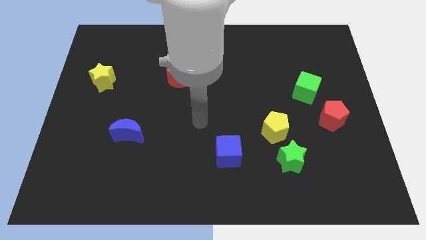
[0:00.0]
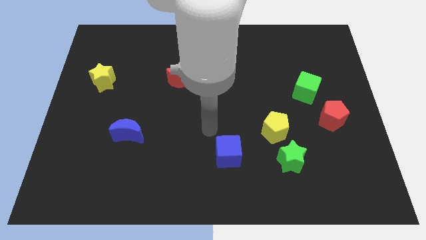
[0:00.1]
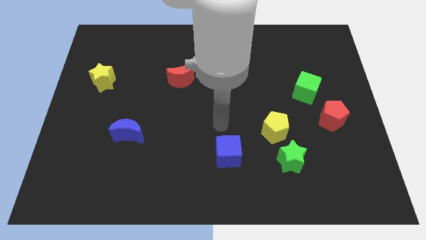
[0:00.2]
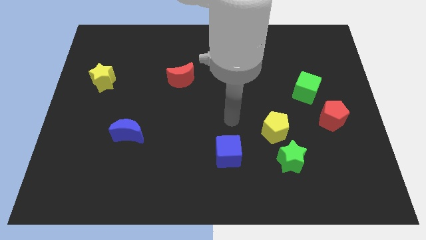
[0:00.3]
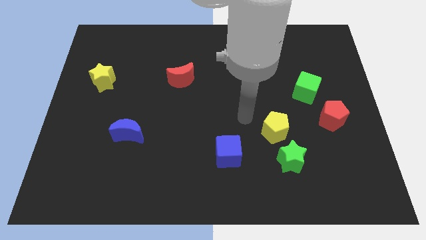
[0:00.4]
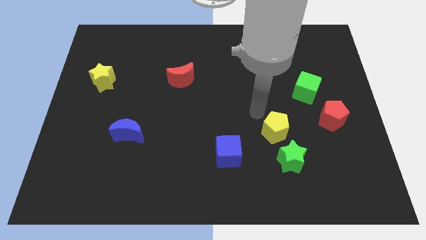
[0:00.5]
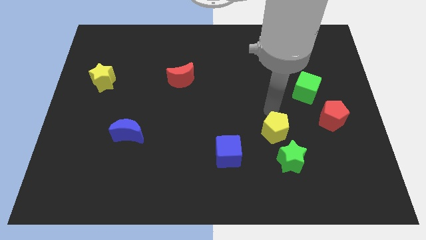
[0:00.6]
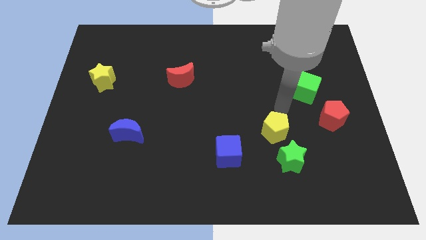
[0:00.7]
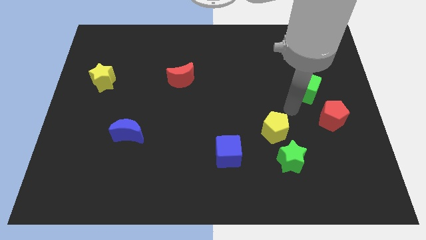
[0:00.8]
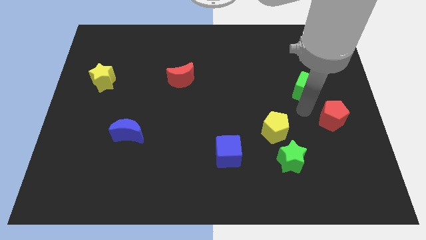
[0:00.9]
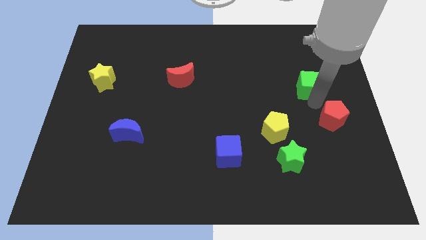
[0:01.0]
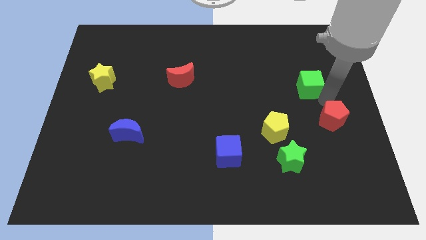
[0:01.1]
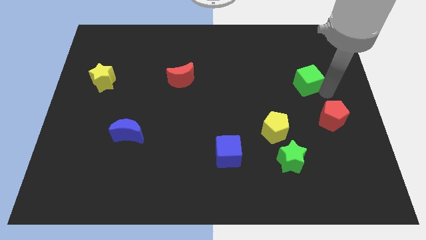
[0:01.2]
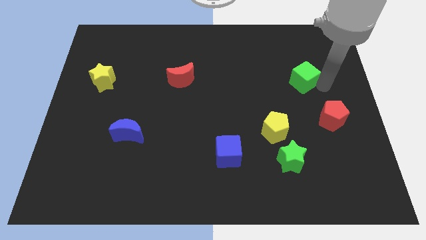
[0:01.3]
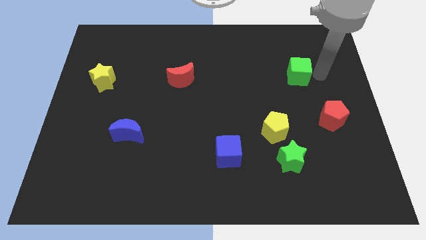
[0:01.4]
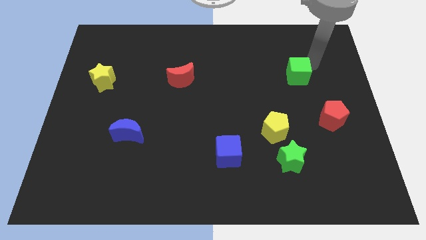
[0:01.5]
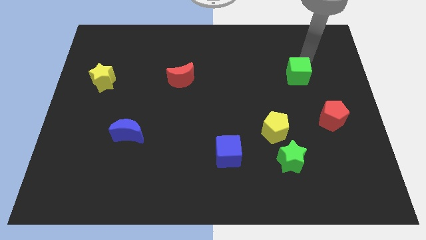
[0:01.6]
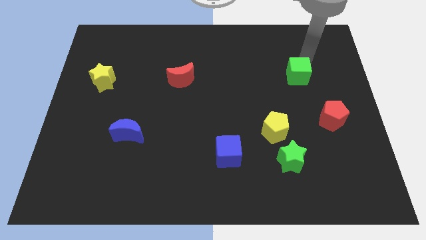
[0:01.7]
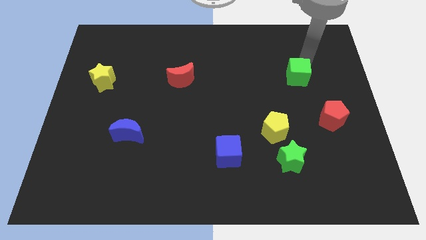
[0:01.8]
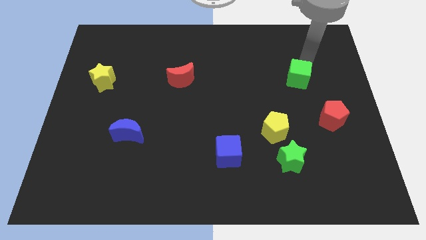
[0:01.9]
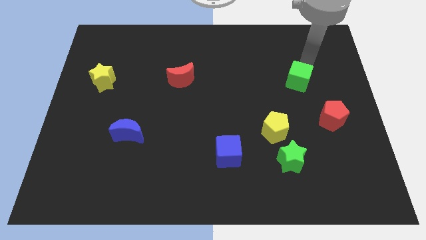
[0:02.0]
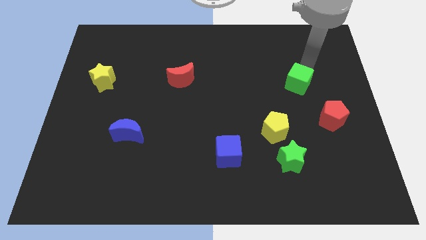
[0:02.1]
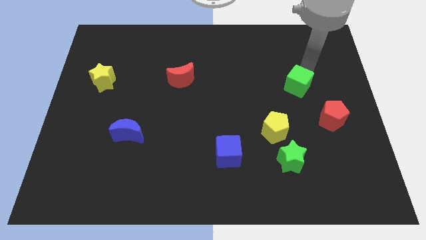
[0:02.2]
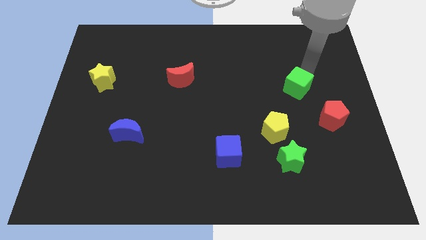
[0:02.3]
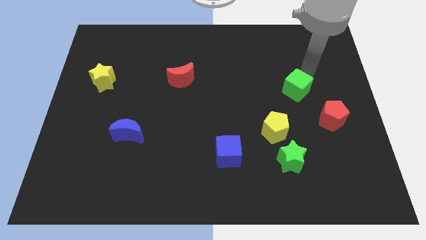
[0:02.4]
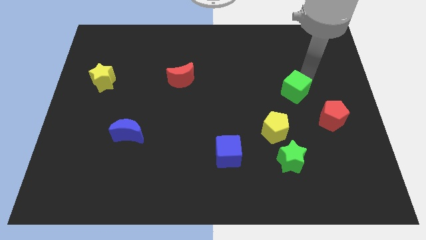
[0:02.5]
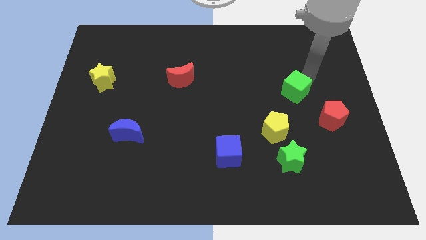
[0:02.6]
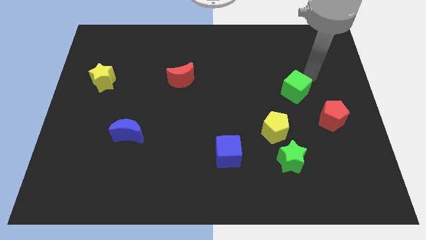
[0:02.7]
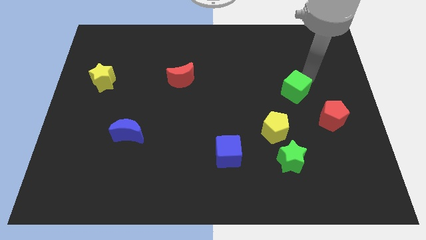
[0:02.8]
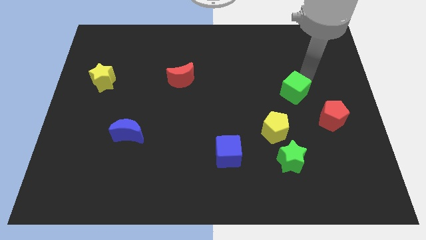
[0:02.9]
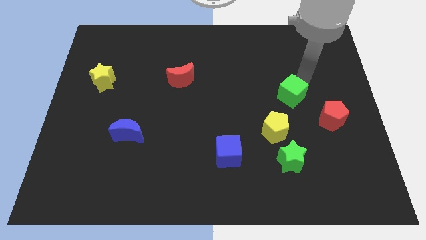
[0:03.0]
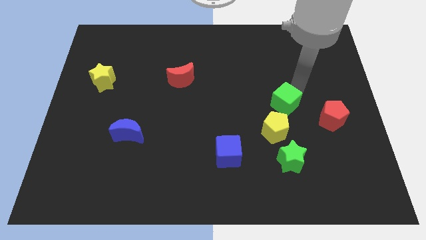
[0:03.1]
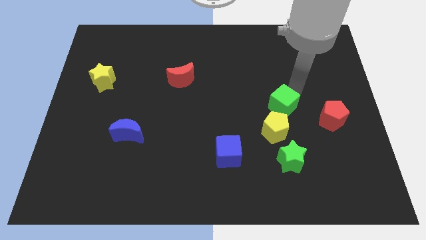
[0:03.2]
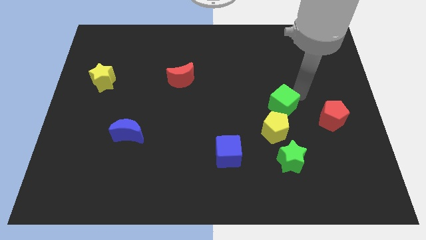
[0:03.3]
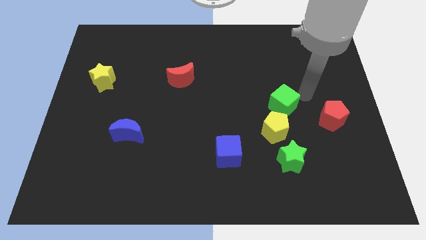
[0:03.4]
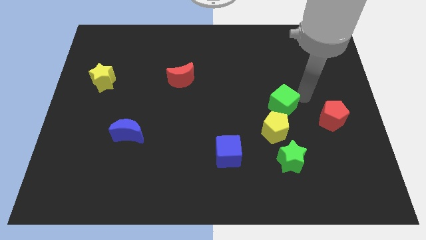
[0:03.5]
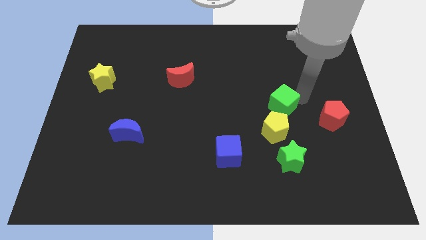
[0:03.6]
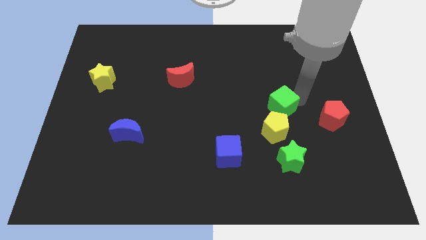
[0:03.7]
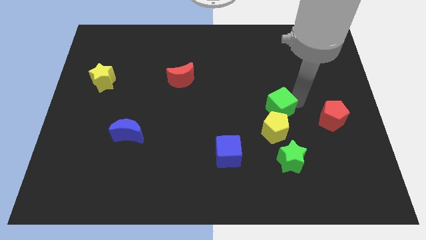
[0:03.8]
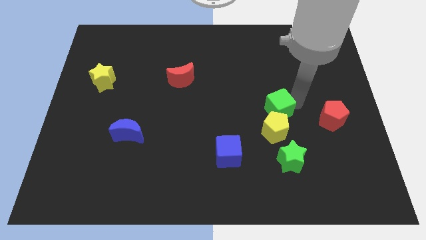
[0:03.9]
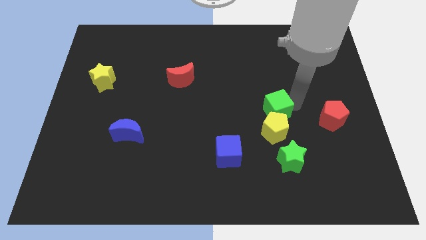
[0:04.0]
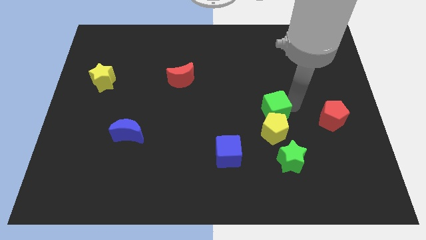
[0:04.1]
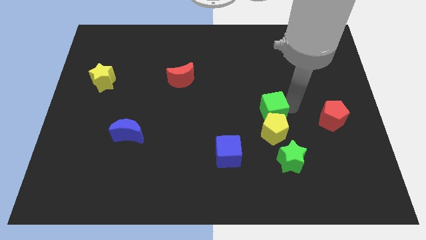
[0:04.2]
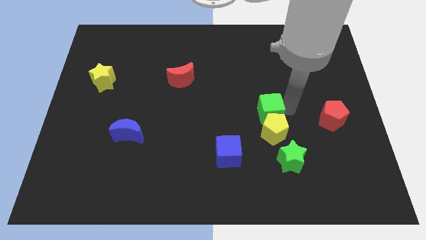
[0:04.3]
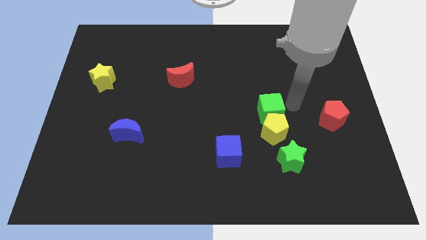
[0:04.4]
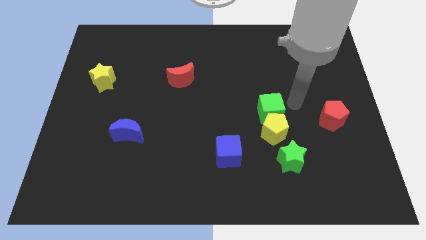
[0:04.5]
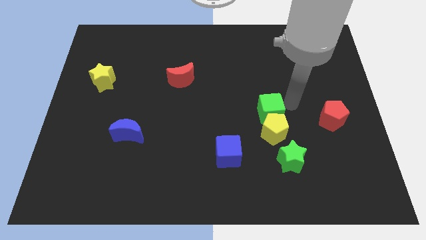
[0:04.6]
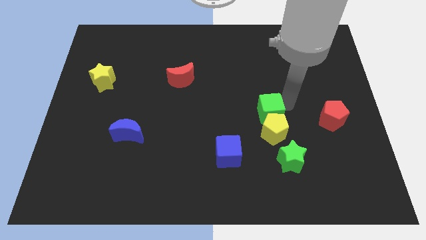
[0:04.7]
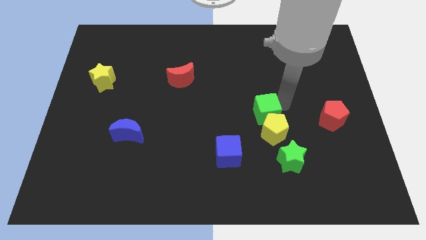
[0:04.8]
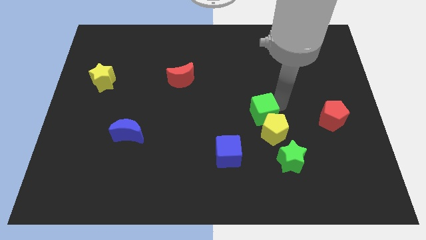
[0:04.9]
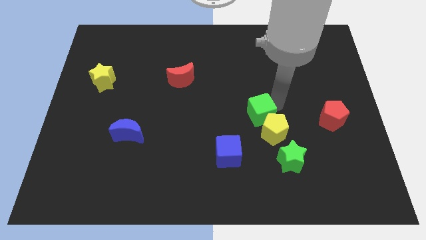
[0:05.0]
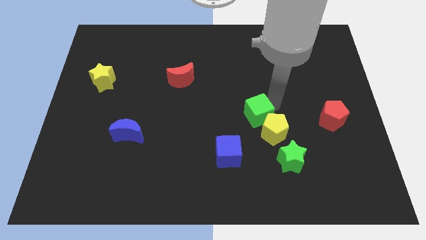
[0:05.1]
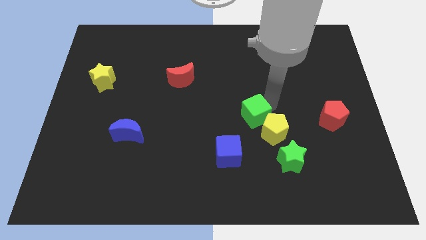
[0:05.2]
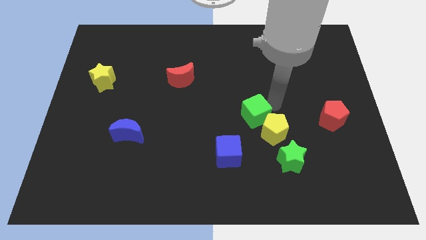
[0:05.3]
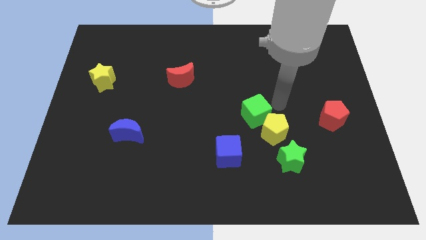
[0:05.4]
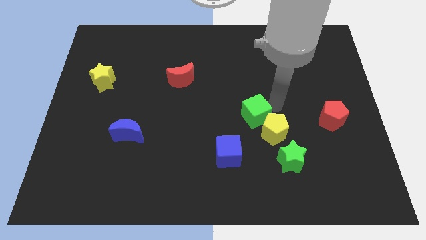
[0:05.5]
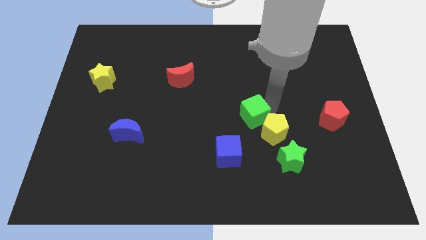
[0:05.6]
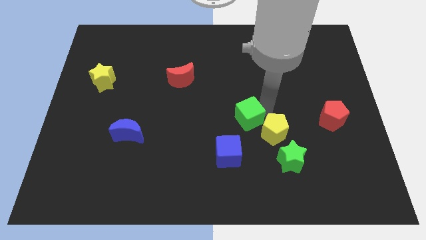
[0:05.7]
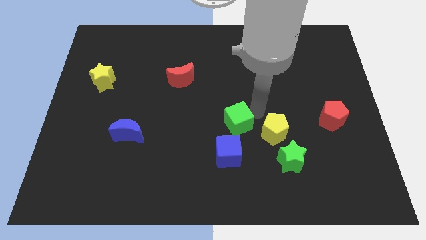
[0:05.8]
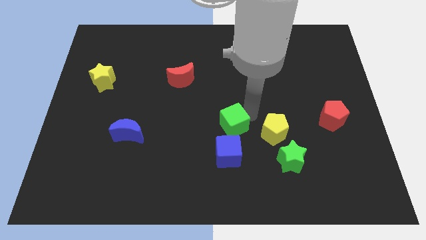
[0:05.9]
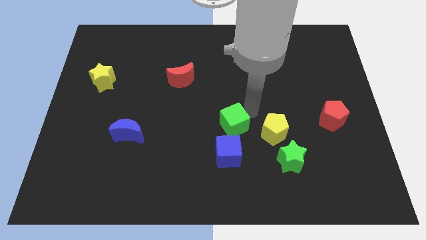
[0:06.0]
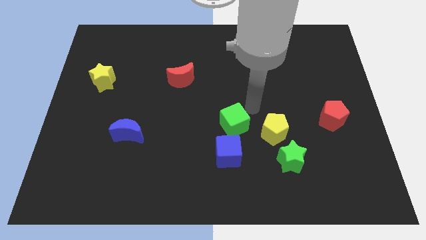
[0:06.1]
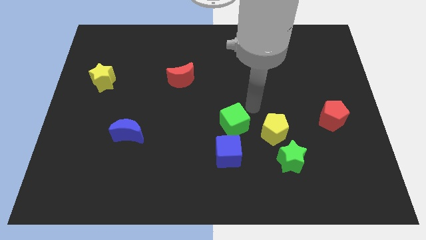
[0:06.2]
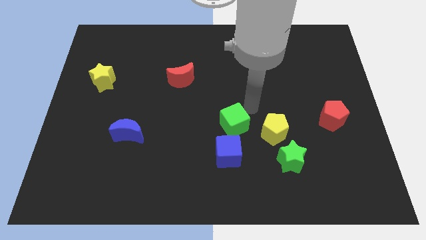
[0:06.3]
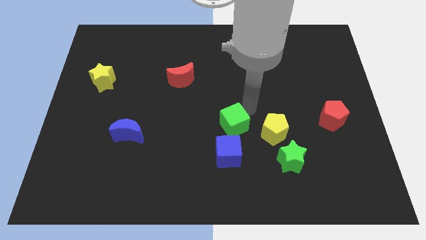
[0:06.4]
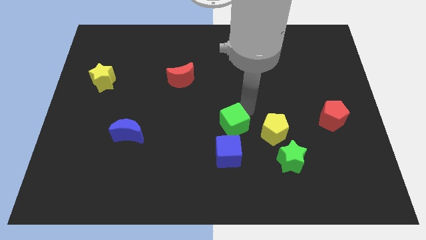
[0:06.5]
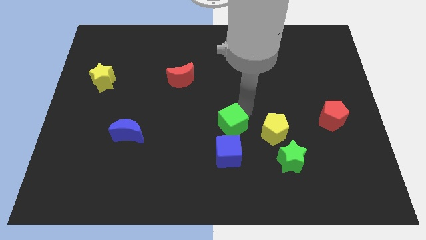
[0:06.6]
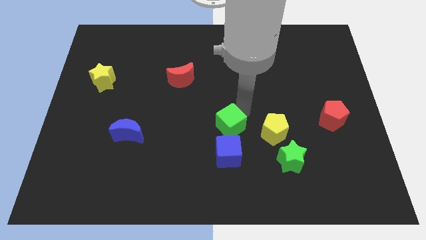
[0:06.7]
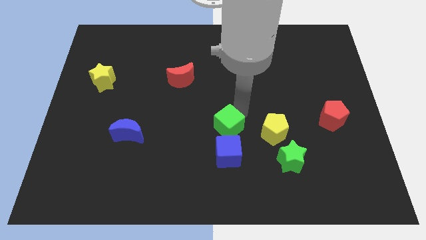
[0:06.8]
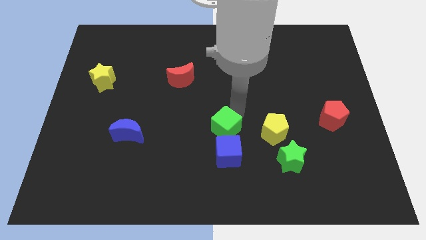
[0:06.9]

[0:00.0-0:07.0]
push the green cube downwards and then left

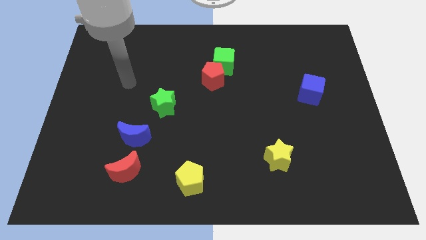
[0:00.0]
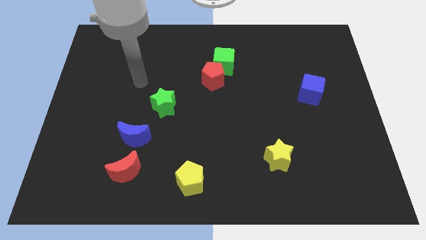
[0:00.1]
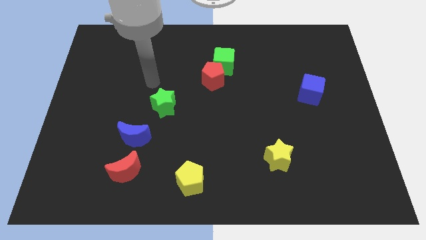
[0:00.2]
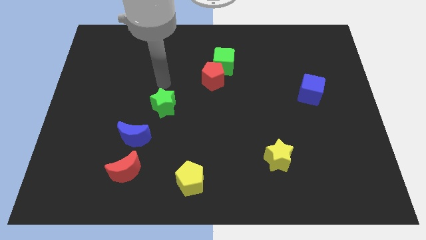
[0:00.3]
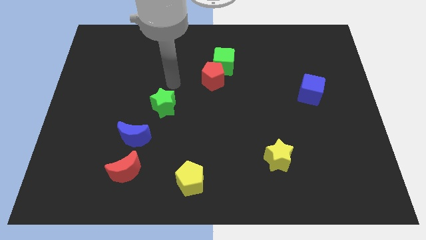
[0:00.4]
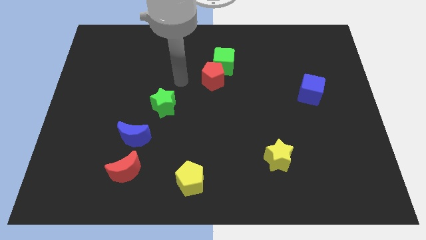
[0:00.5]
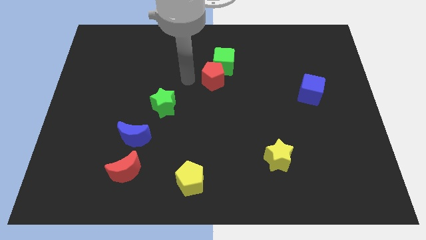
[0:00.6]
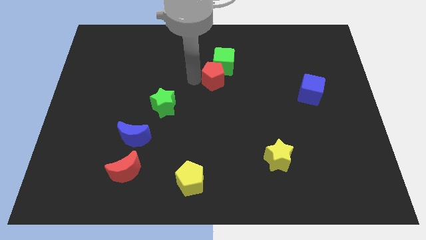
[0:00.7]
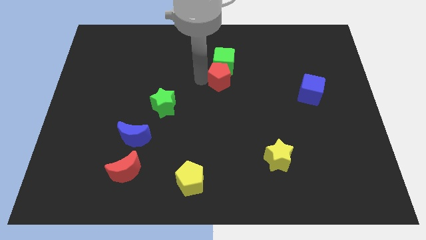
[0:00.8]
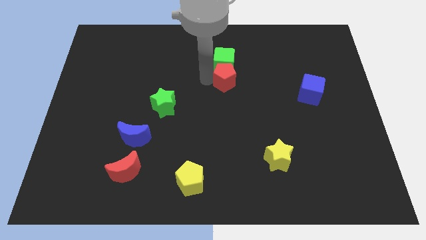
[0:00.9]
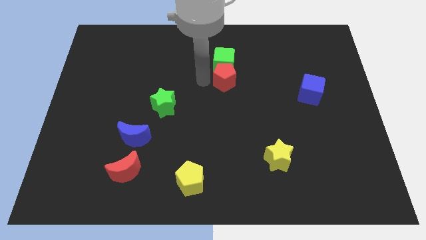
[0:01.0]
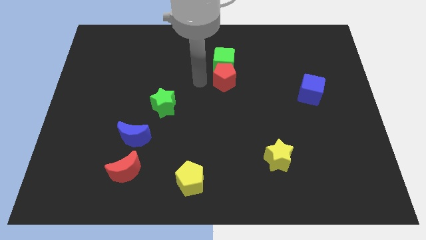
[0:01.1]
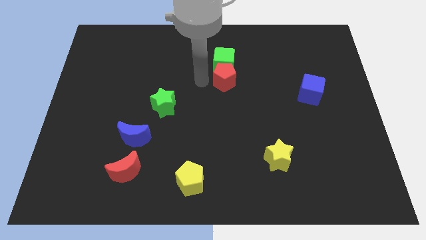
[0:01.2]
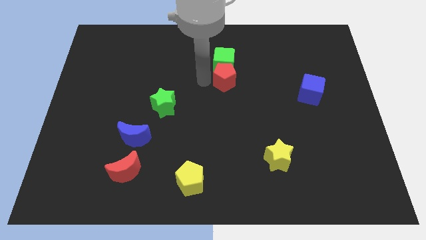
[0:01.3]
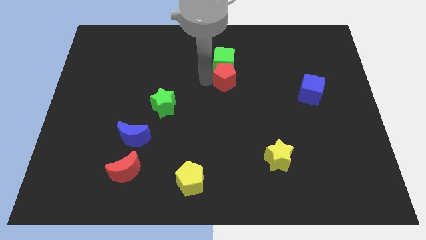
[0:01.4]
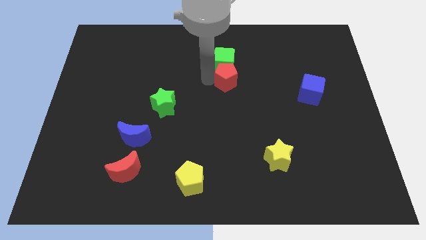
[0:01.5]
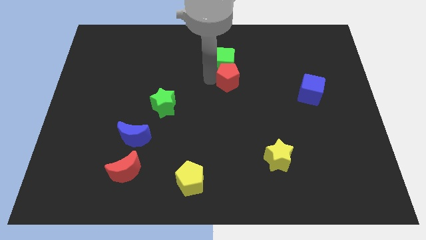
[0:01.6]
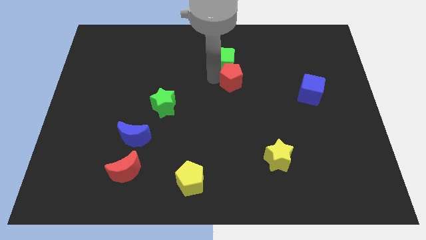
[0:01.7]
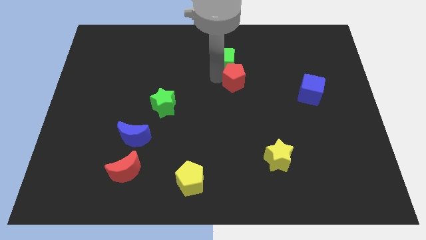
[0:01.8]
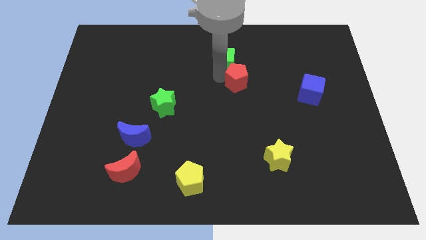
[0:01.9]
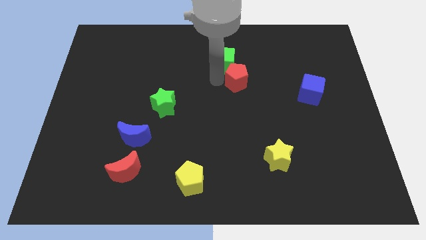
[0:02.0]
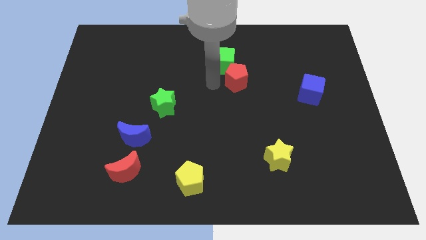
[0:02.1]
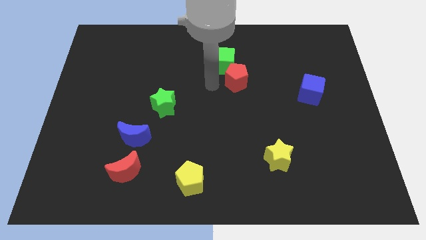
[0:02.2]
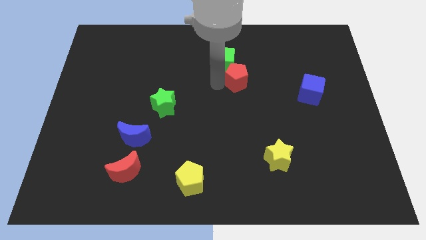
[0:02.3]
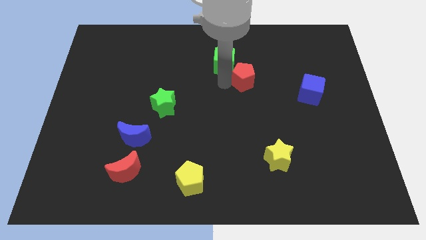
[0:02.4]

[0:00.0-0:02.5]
slightly move the red pentagon right
